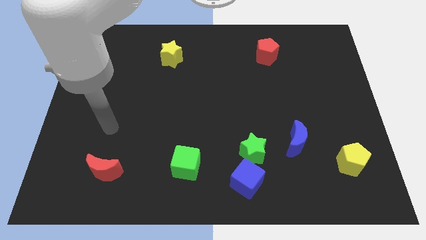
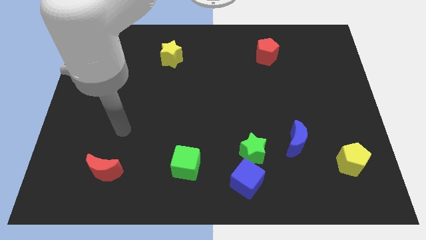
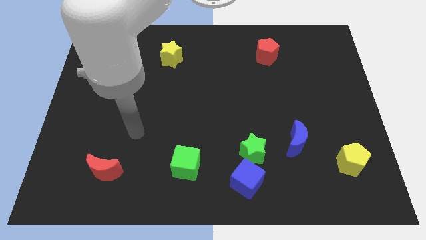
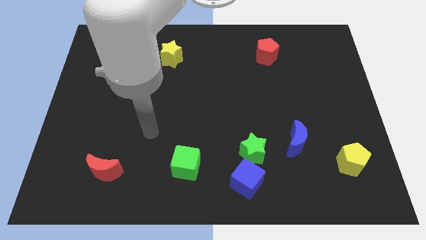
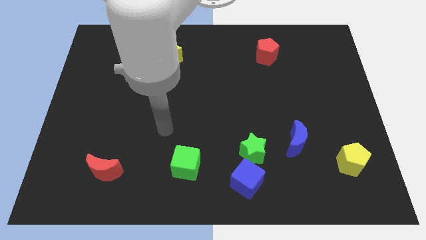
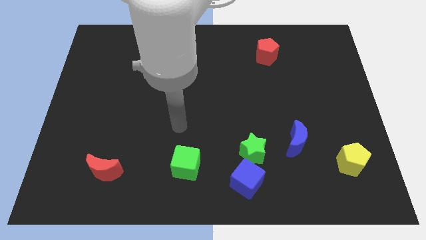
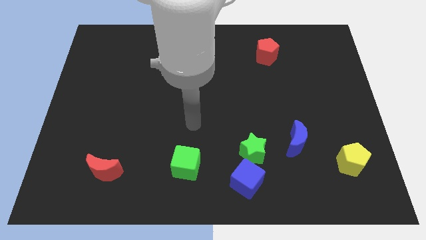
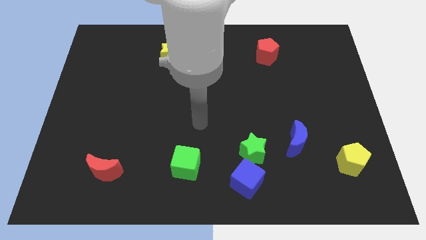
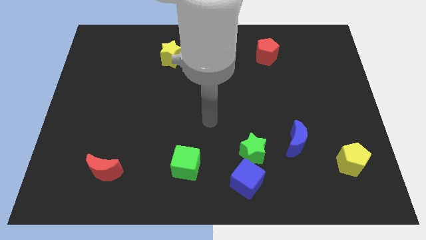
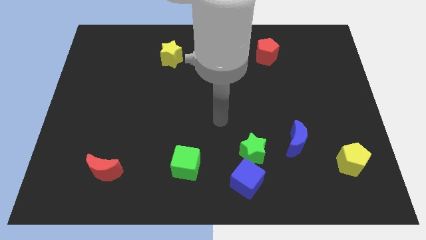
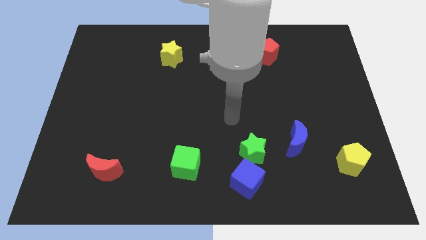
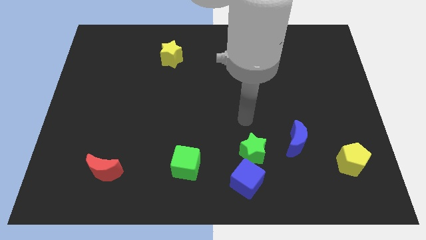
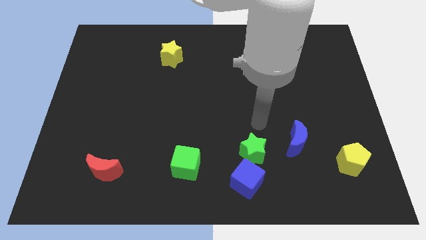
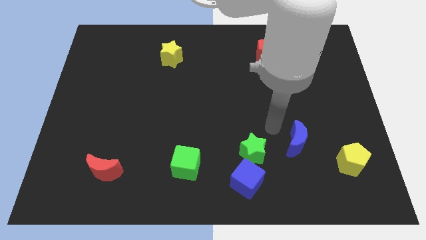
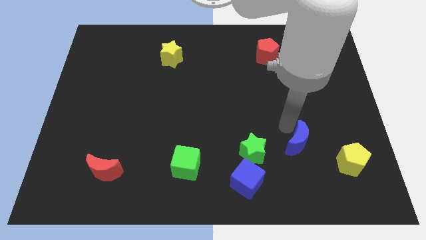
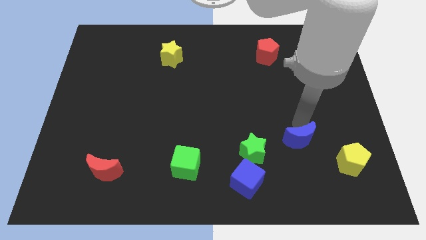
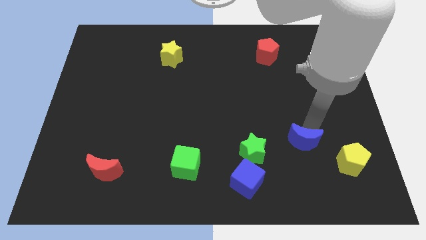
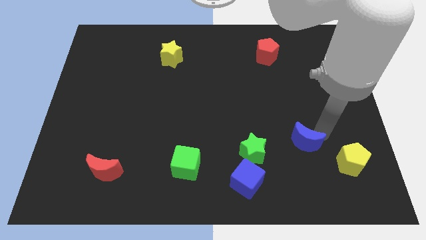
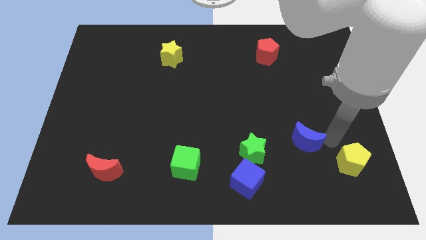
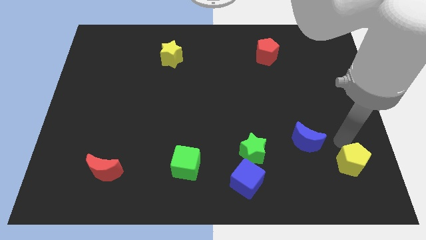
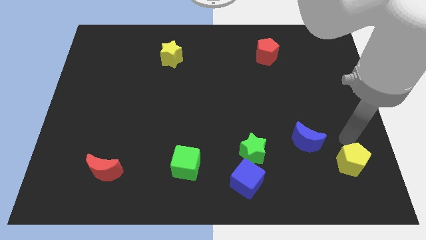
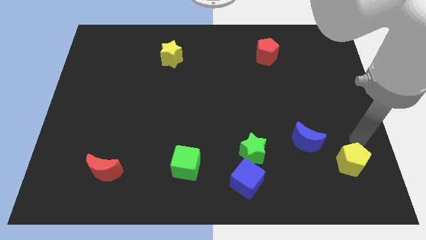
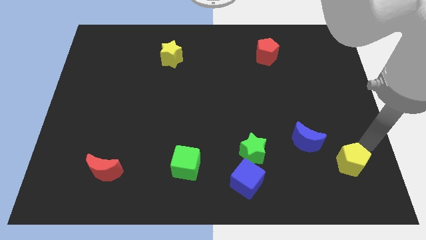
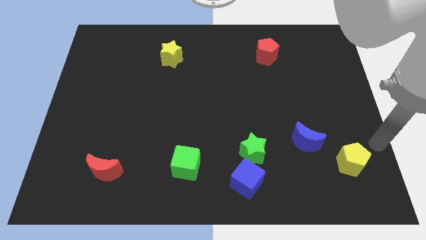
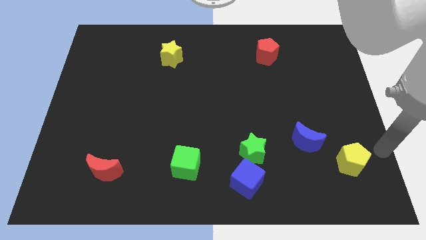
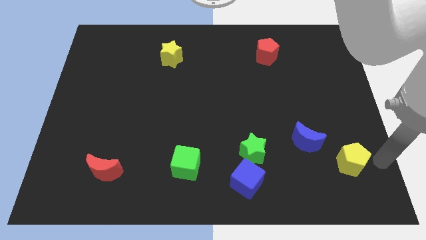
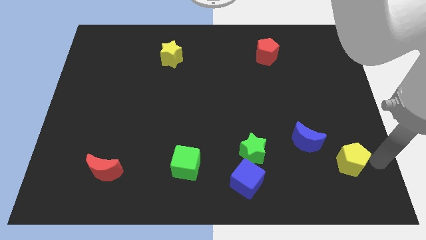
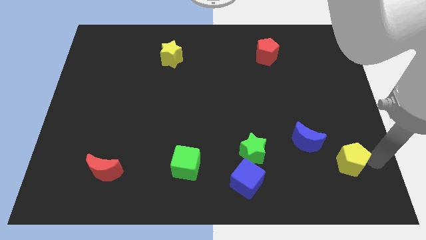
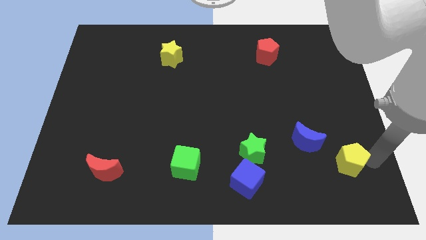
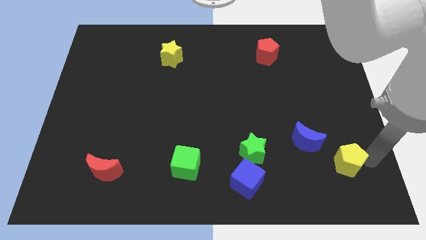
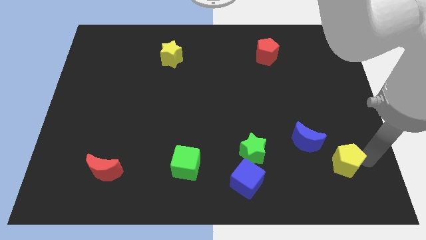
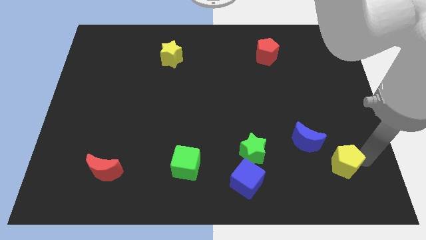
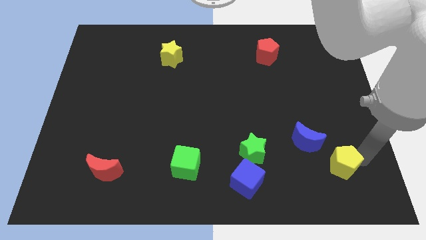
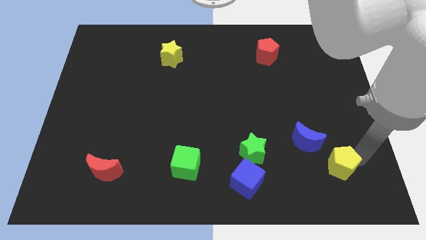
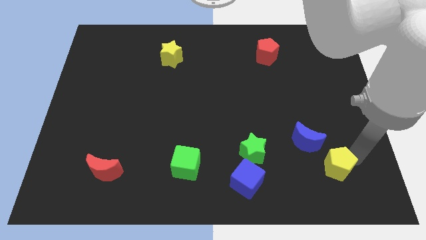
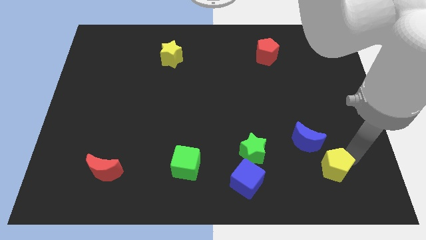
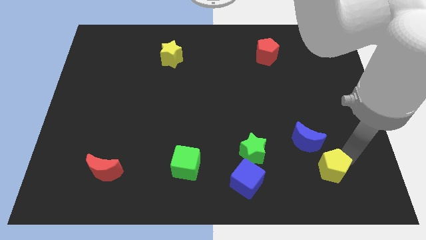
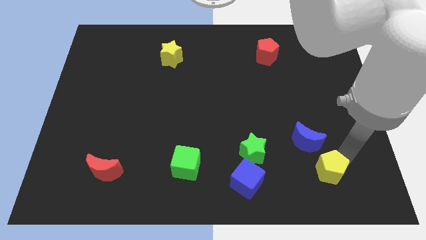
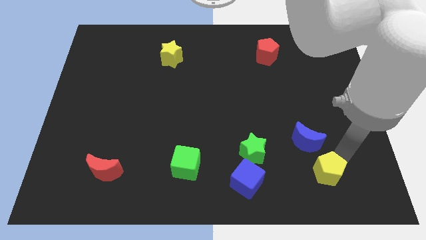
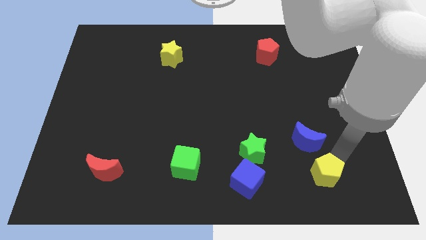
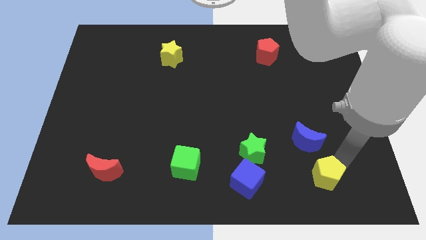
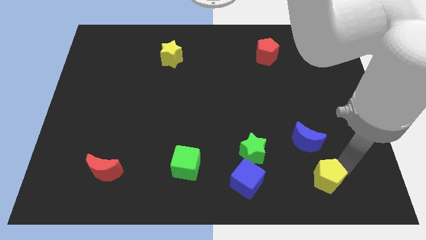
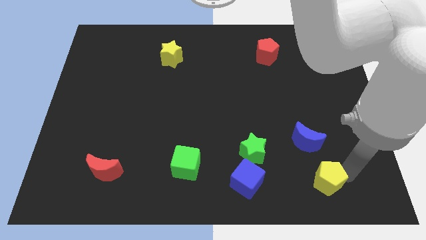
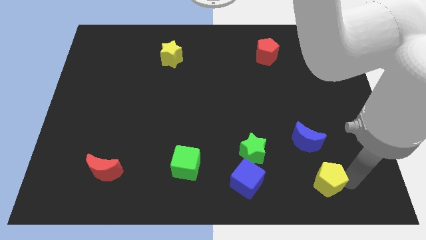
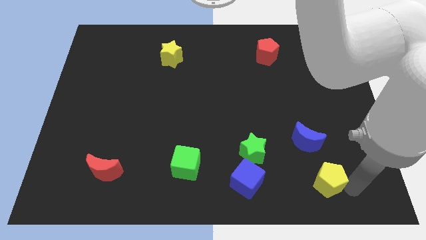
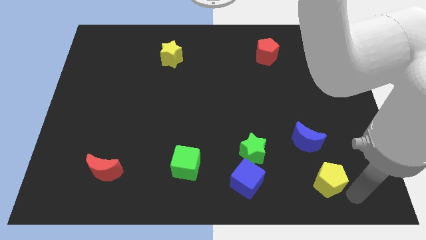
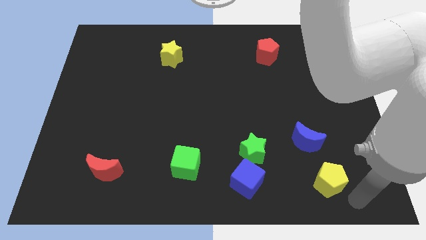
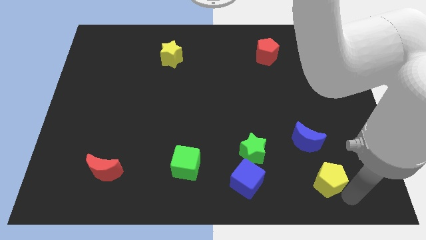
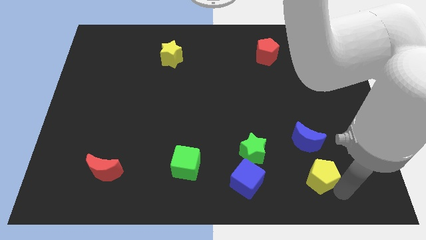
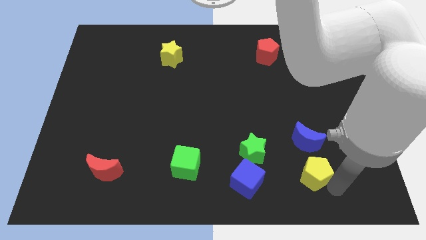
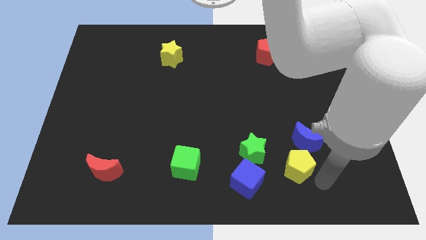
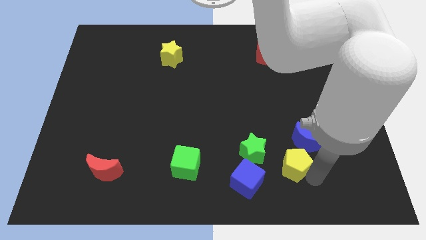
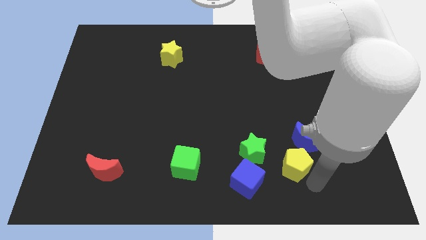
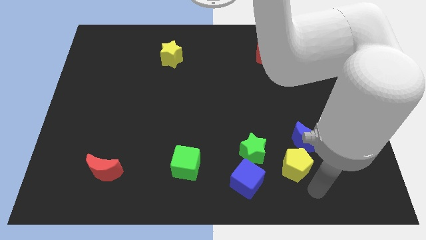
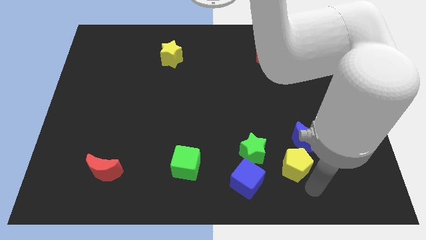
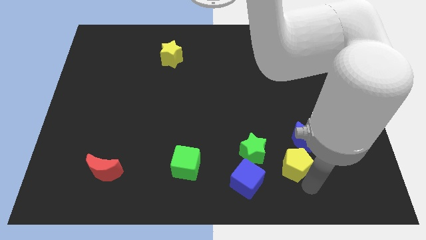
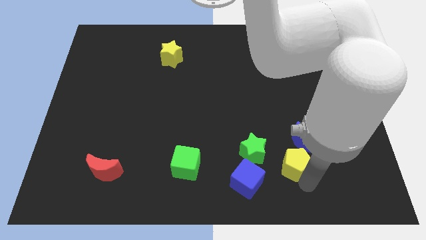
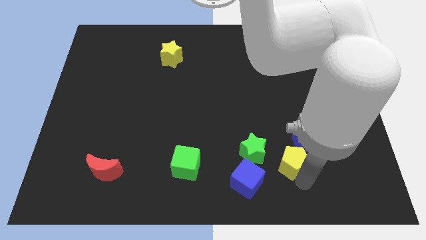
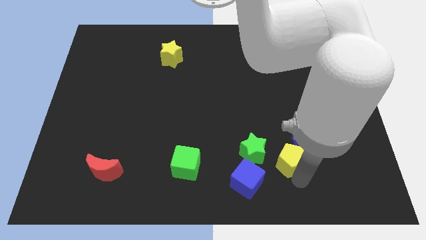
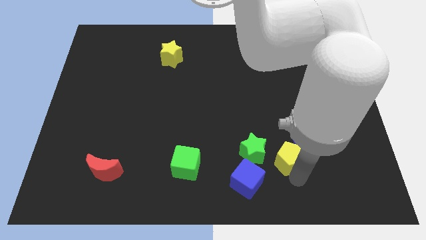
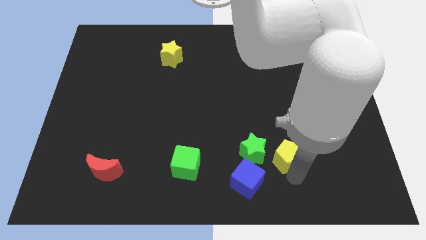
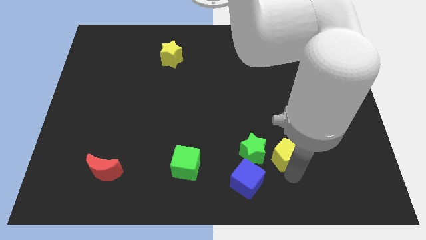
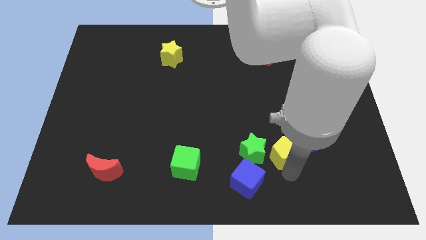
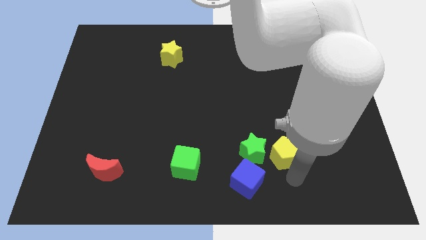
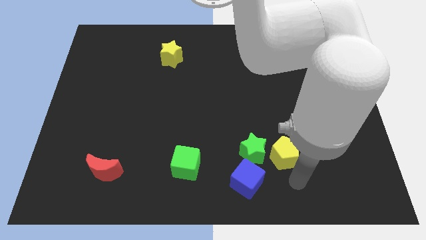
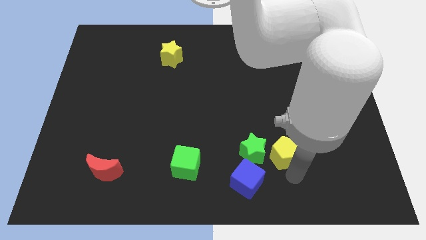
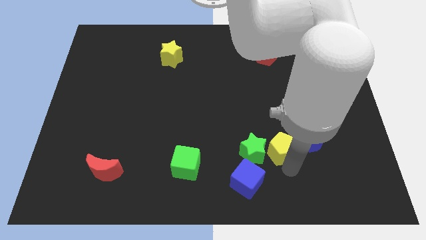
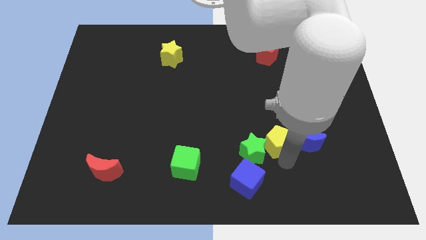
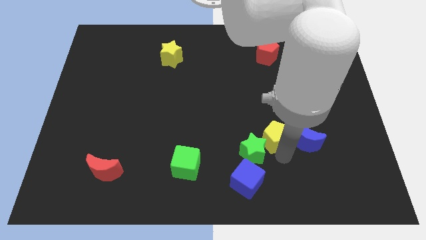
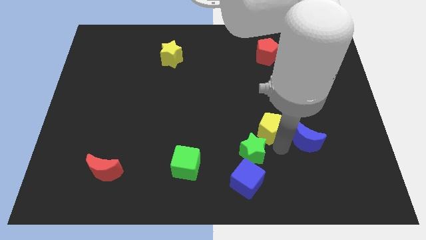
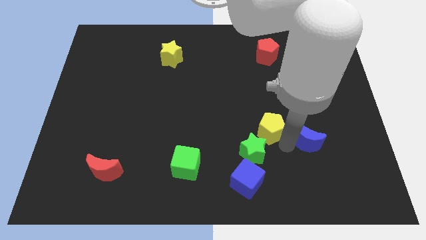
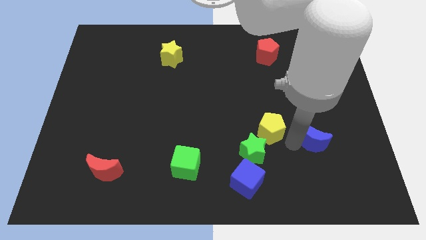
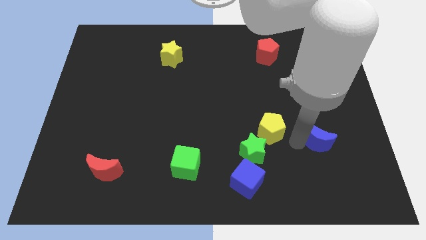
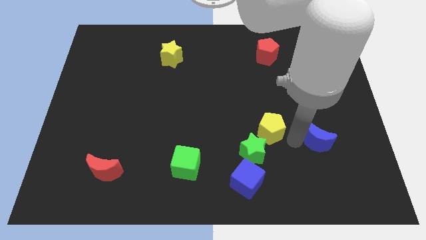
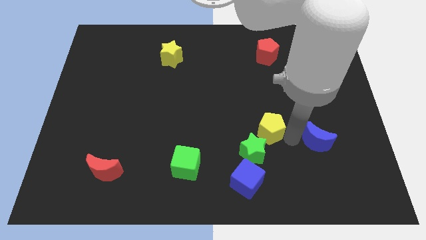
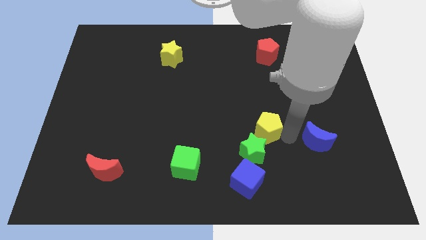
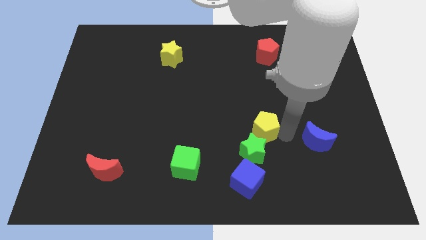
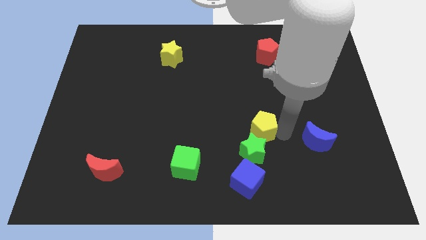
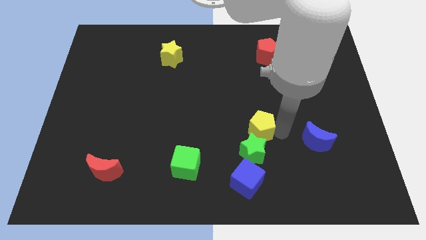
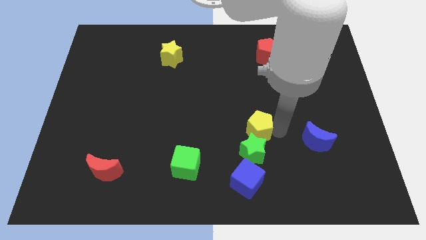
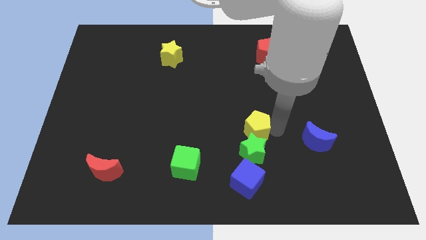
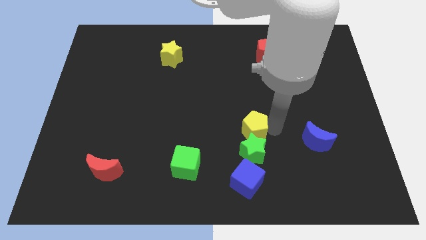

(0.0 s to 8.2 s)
slide the yellow pentagon to the top left of the green star
